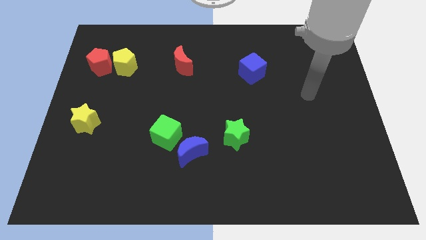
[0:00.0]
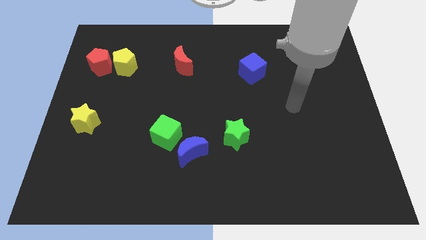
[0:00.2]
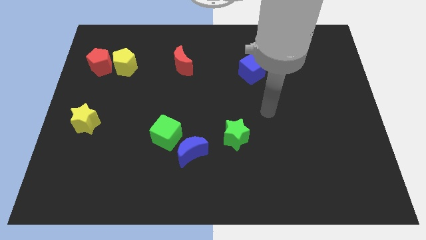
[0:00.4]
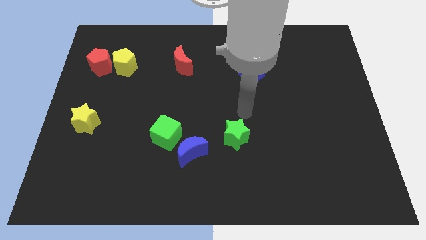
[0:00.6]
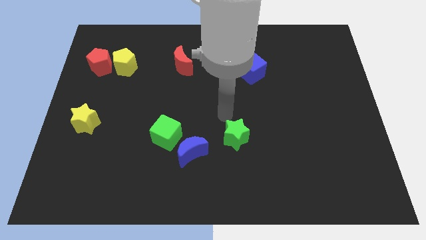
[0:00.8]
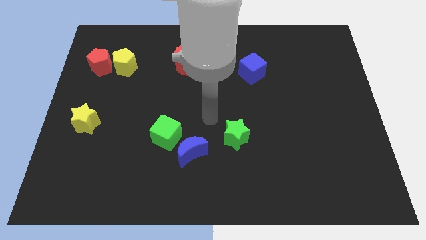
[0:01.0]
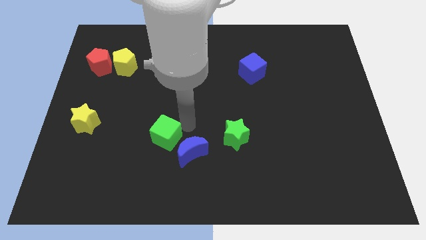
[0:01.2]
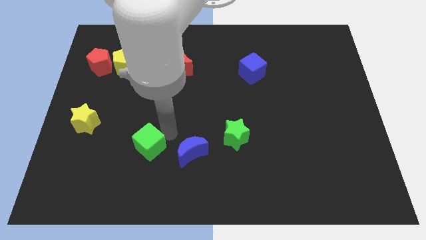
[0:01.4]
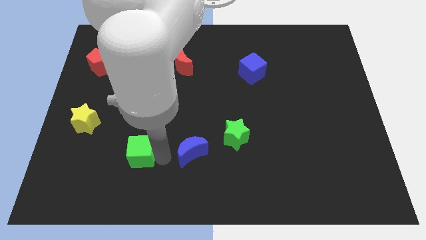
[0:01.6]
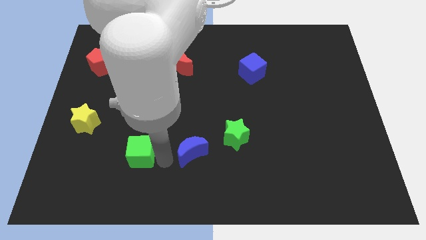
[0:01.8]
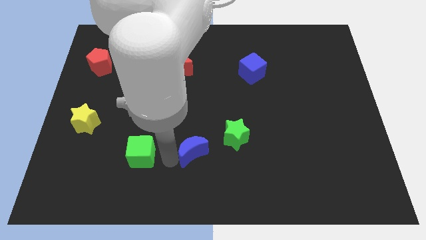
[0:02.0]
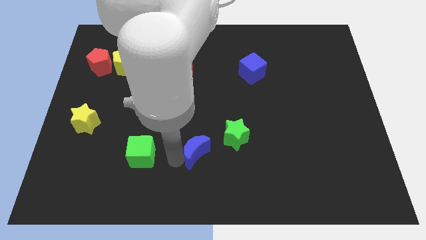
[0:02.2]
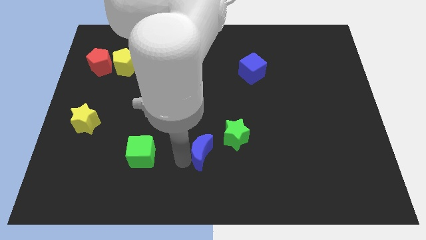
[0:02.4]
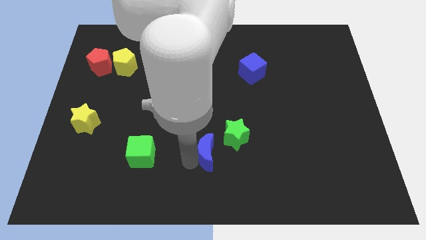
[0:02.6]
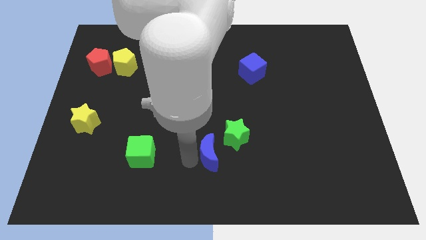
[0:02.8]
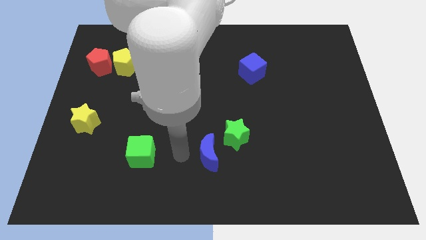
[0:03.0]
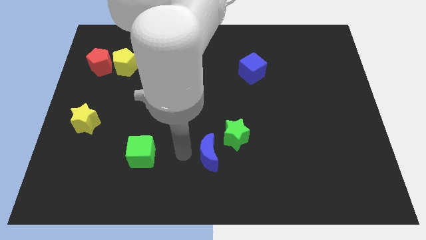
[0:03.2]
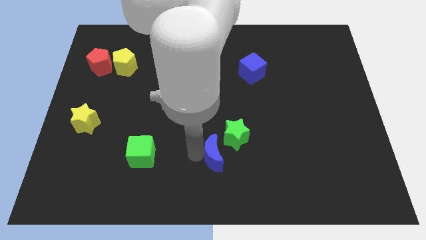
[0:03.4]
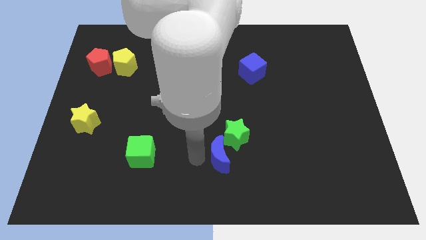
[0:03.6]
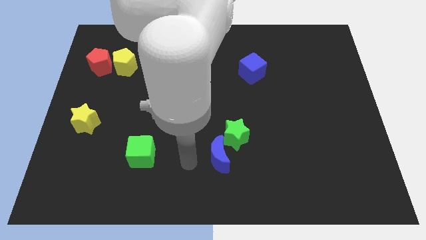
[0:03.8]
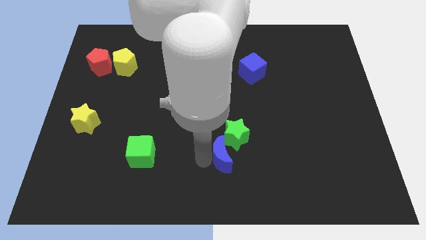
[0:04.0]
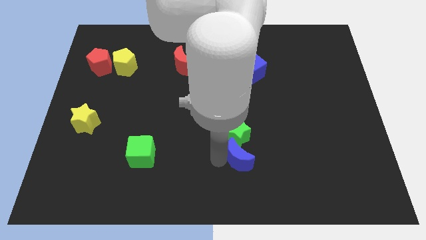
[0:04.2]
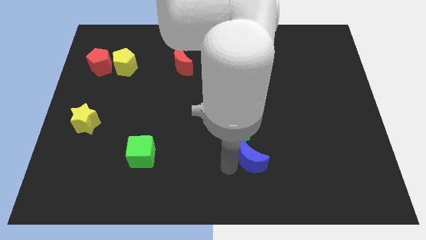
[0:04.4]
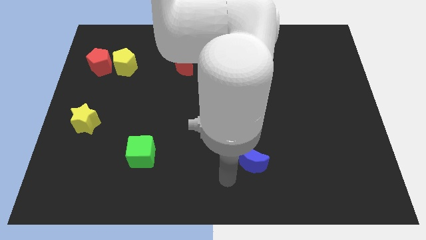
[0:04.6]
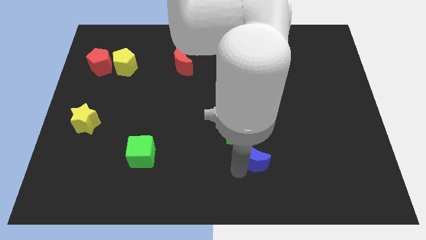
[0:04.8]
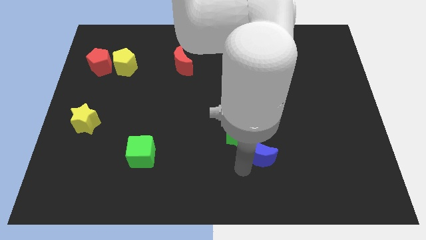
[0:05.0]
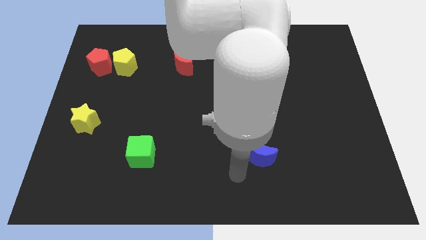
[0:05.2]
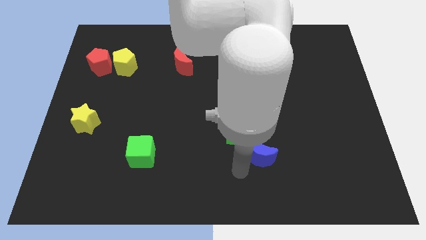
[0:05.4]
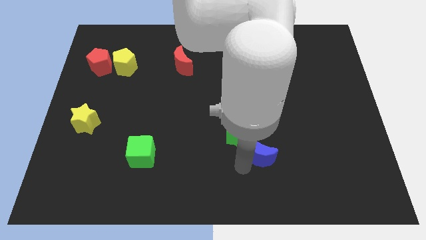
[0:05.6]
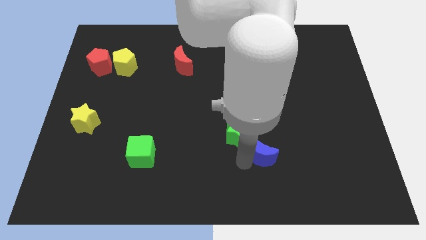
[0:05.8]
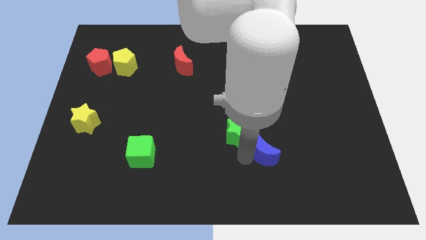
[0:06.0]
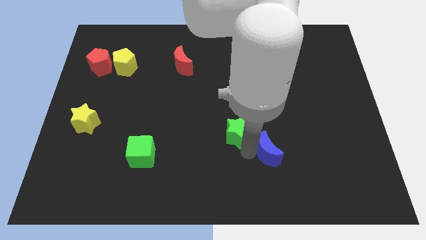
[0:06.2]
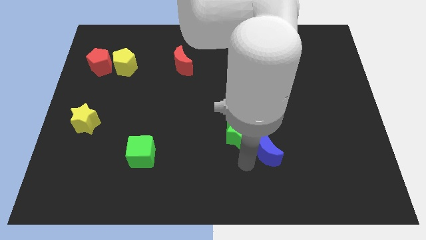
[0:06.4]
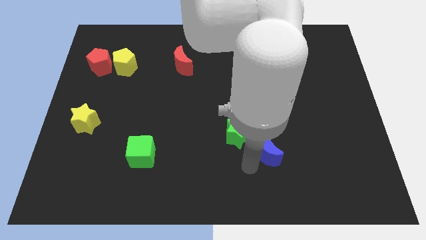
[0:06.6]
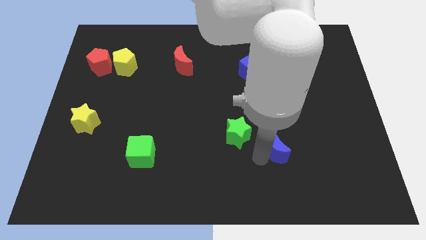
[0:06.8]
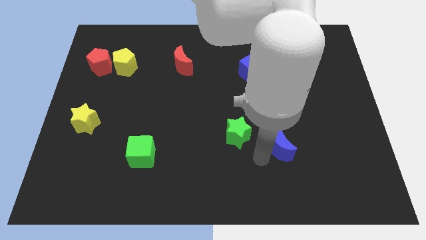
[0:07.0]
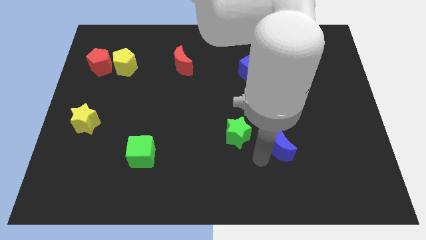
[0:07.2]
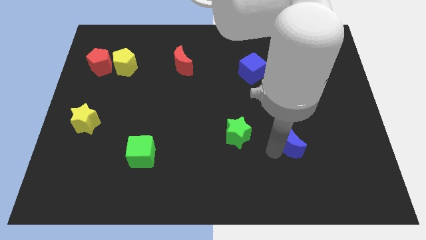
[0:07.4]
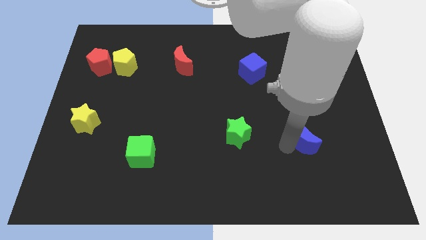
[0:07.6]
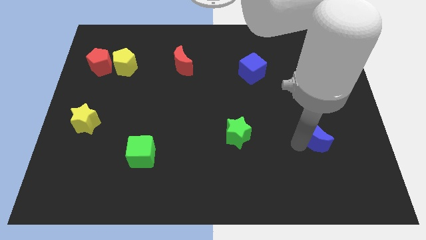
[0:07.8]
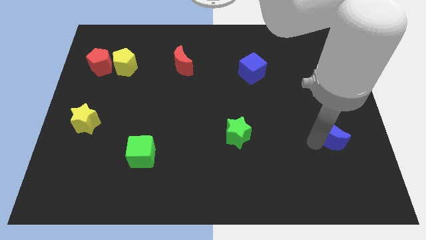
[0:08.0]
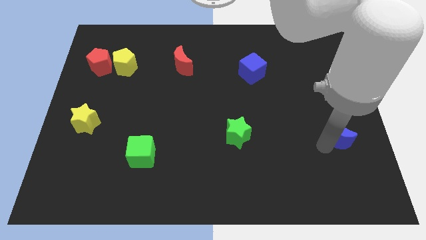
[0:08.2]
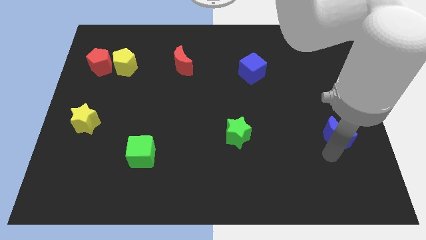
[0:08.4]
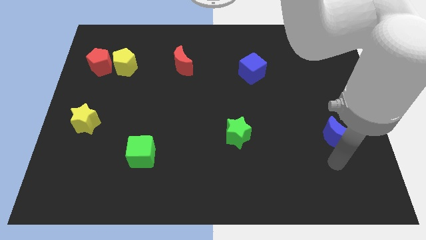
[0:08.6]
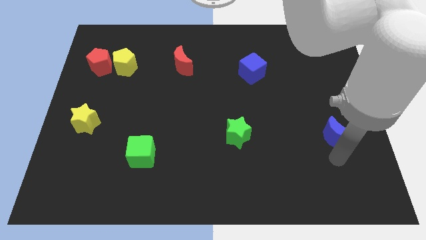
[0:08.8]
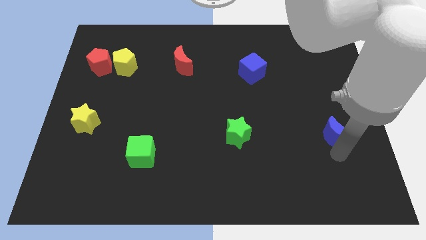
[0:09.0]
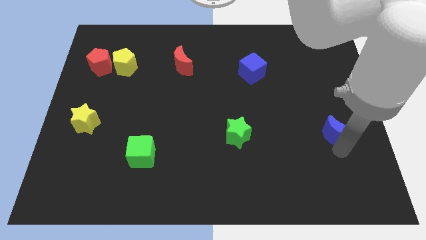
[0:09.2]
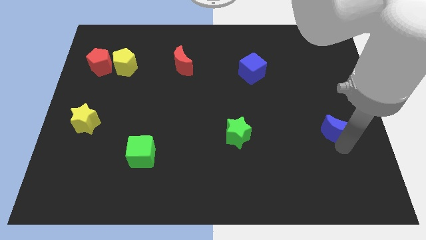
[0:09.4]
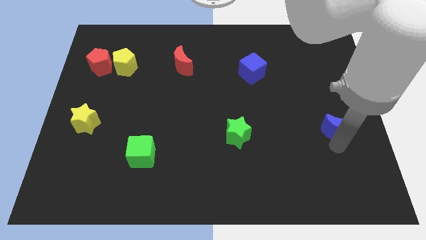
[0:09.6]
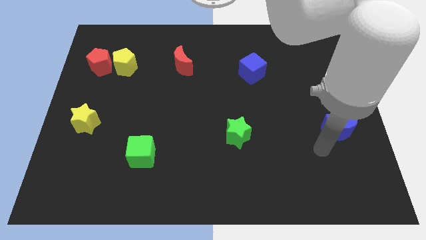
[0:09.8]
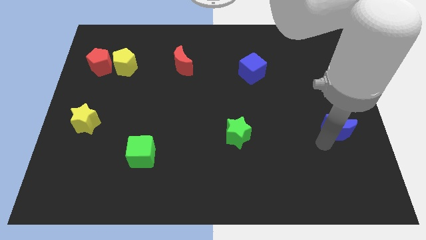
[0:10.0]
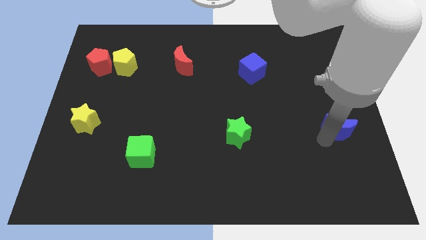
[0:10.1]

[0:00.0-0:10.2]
move the blue moon to the center right

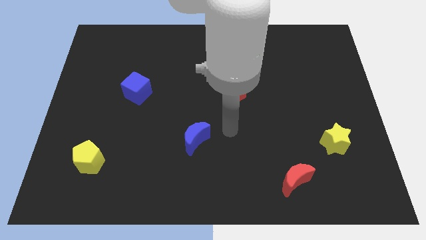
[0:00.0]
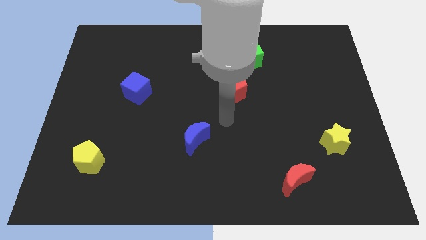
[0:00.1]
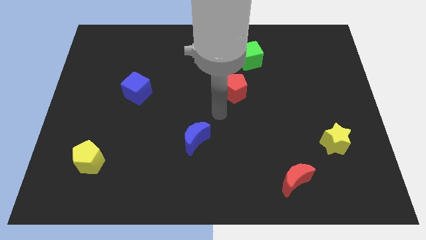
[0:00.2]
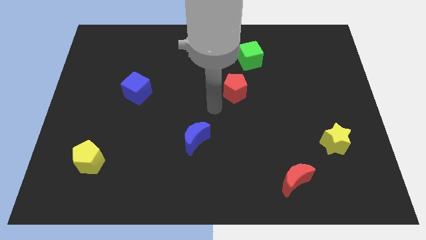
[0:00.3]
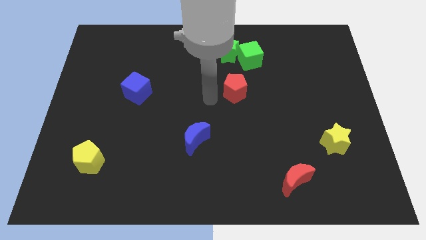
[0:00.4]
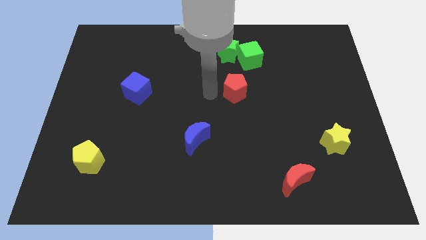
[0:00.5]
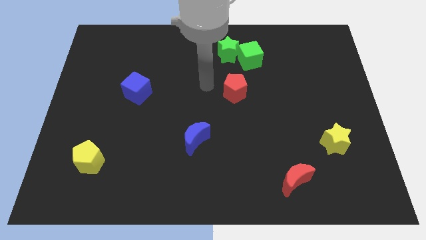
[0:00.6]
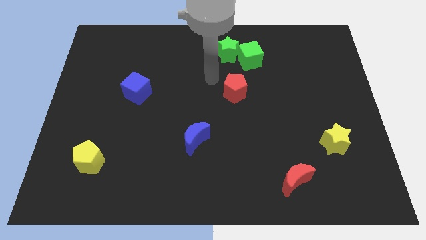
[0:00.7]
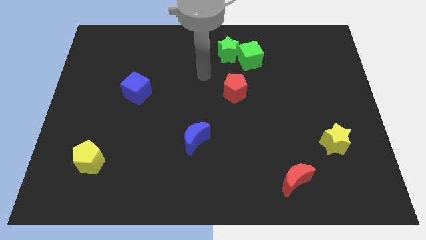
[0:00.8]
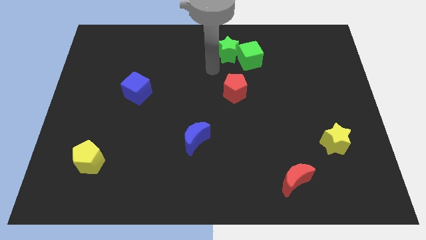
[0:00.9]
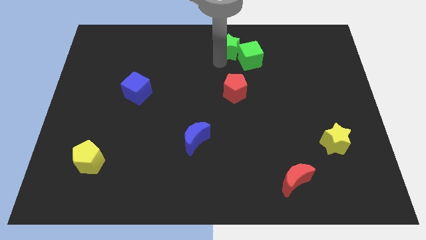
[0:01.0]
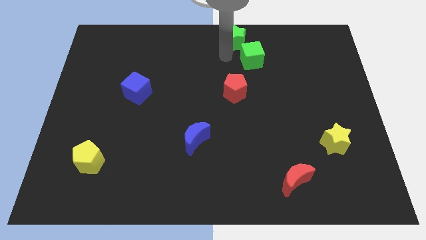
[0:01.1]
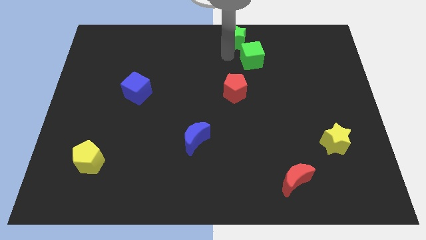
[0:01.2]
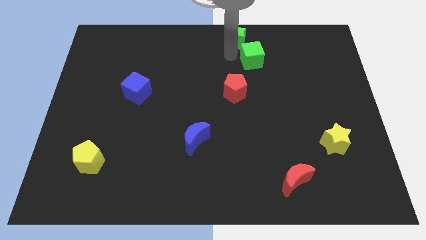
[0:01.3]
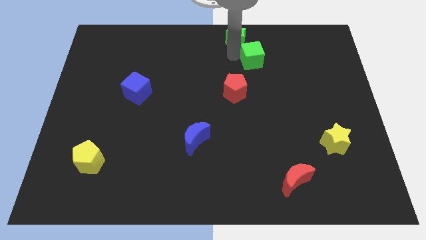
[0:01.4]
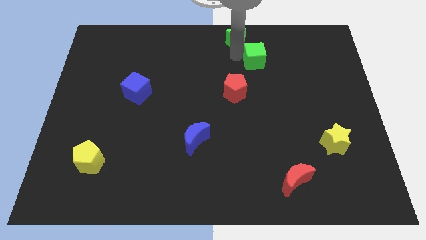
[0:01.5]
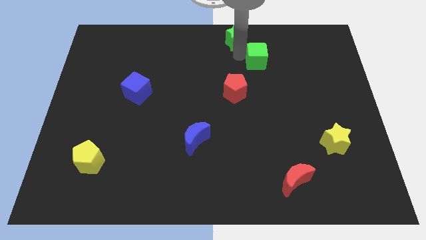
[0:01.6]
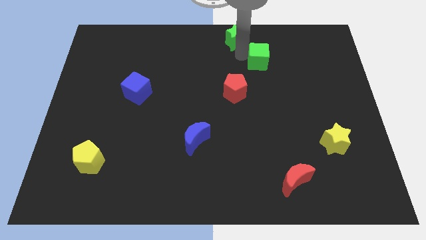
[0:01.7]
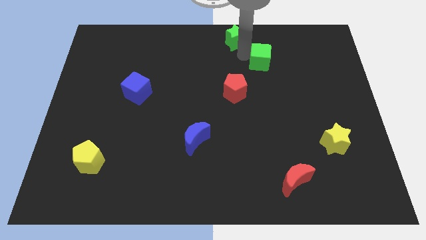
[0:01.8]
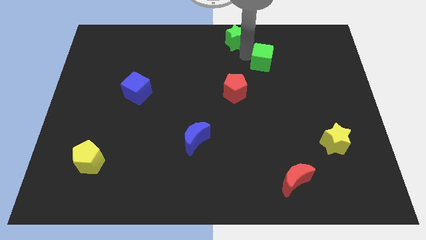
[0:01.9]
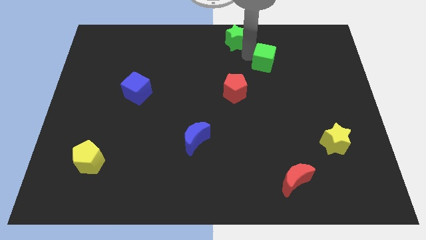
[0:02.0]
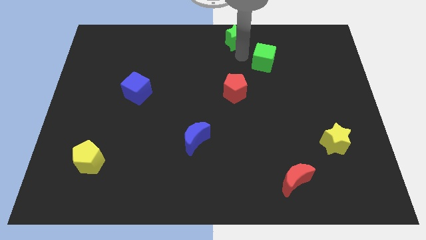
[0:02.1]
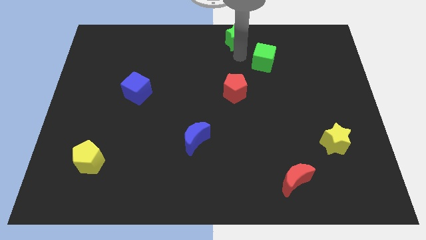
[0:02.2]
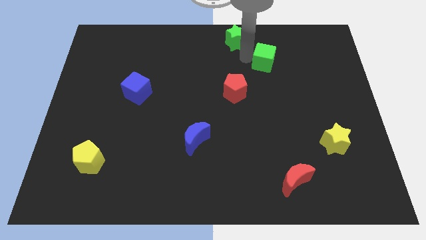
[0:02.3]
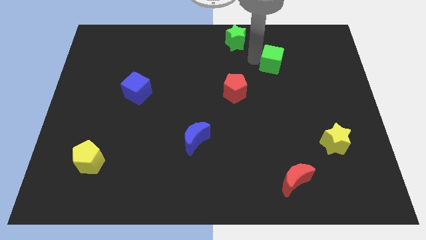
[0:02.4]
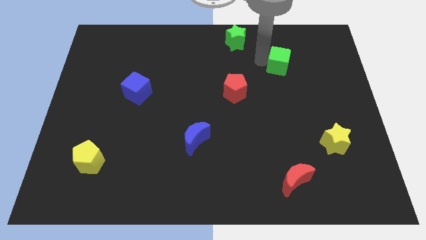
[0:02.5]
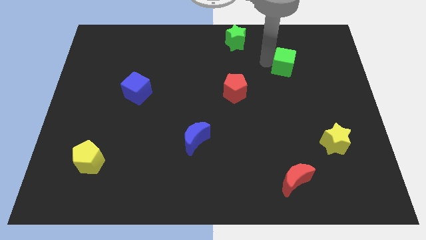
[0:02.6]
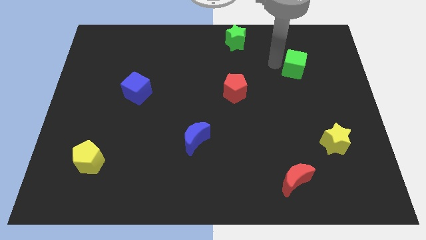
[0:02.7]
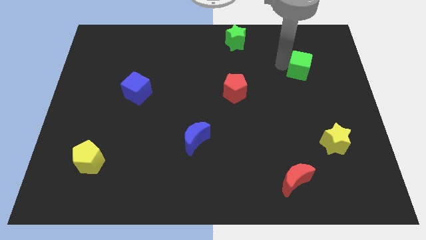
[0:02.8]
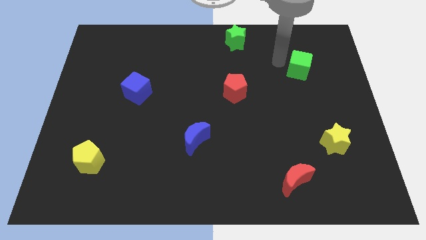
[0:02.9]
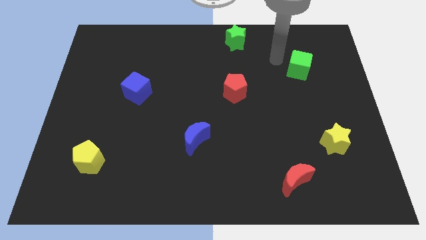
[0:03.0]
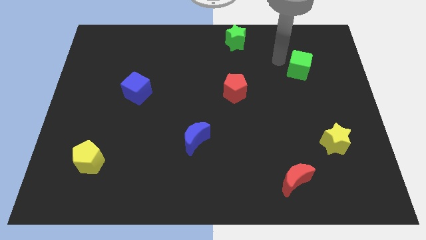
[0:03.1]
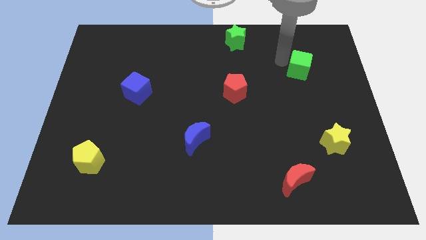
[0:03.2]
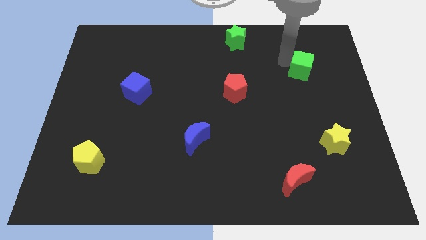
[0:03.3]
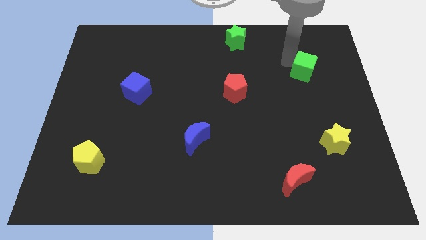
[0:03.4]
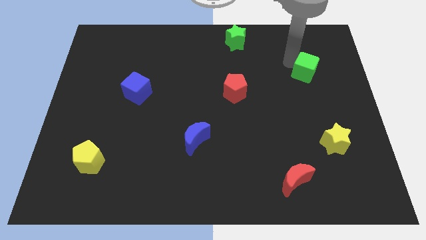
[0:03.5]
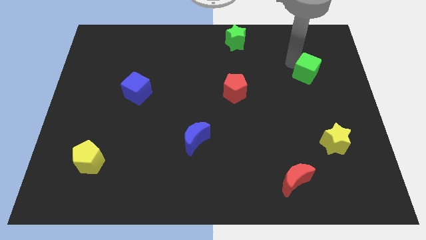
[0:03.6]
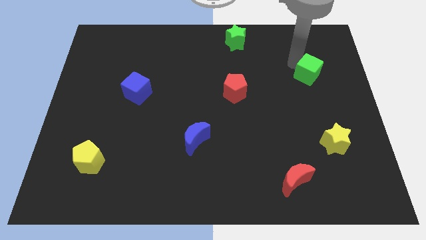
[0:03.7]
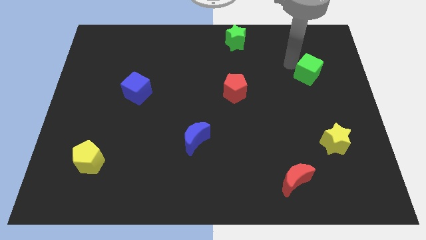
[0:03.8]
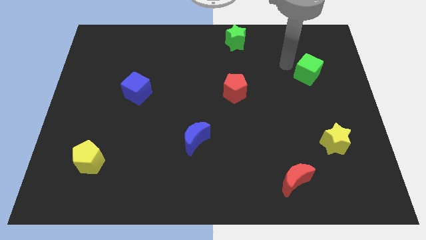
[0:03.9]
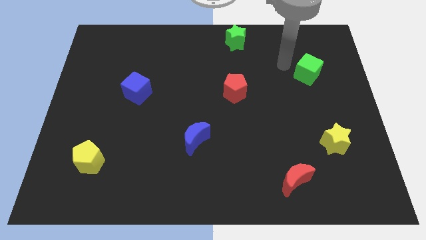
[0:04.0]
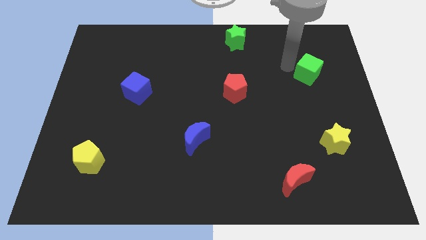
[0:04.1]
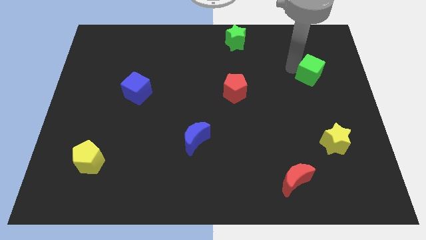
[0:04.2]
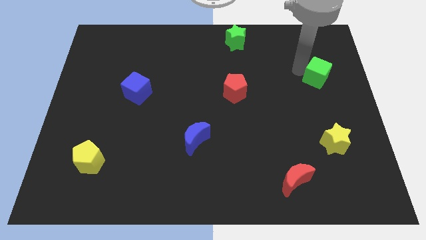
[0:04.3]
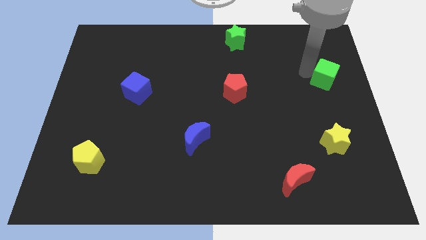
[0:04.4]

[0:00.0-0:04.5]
slide the green cube to the center right
